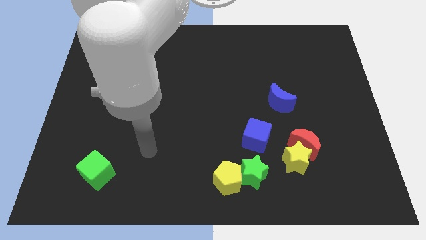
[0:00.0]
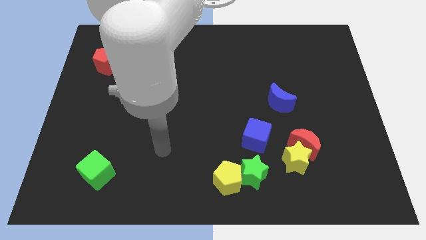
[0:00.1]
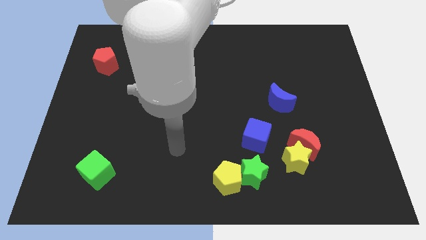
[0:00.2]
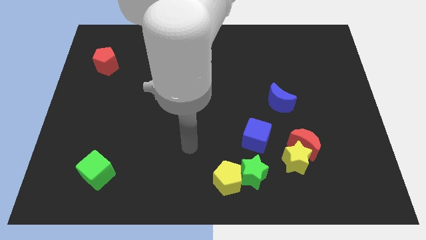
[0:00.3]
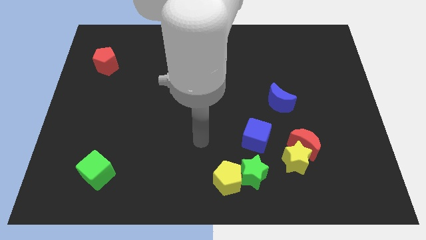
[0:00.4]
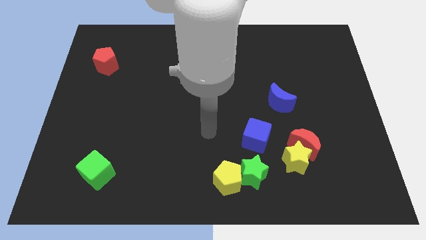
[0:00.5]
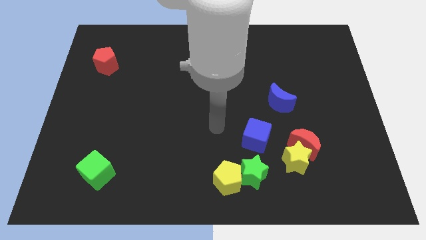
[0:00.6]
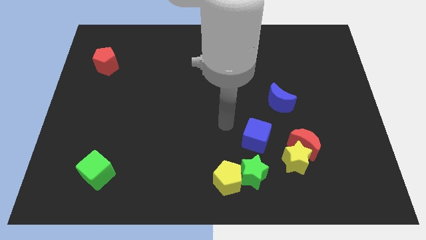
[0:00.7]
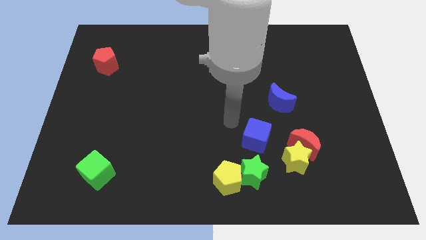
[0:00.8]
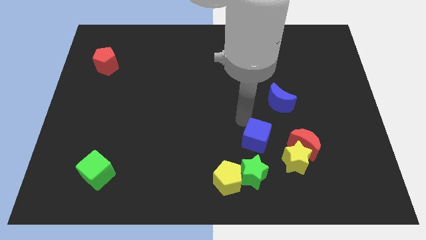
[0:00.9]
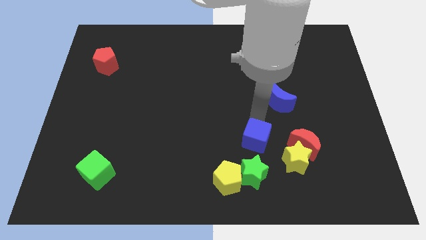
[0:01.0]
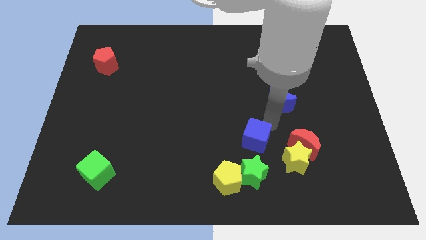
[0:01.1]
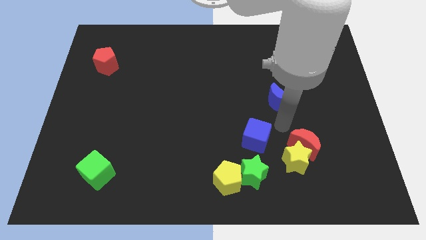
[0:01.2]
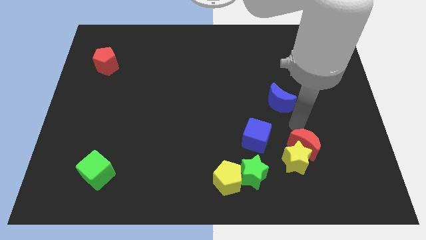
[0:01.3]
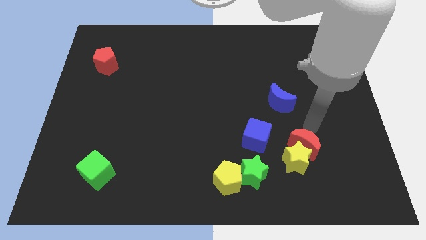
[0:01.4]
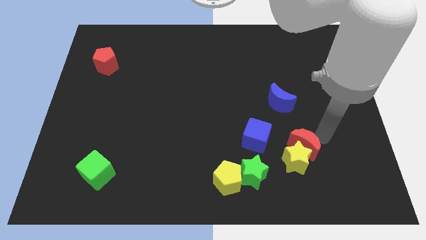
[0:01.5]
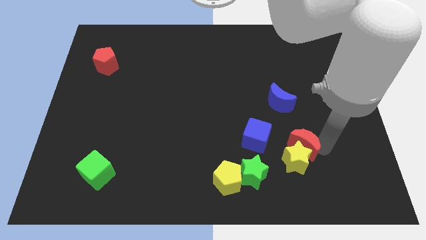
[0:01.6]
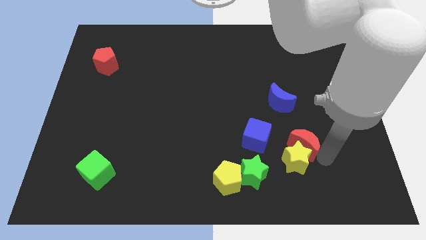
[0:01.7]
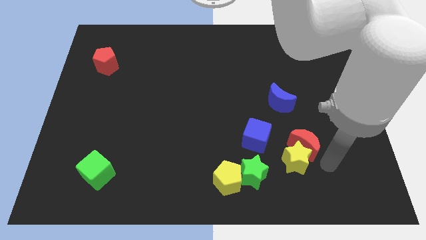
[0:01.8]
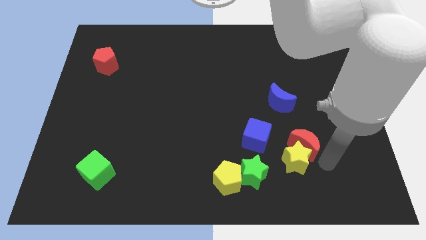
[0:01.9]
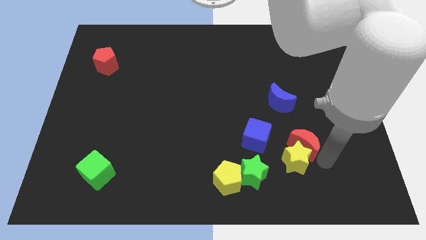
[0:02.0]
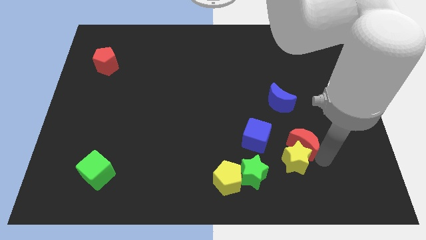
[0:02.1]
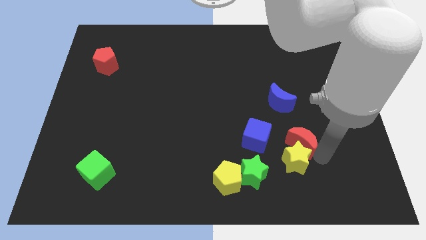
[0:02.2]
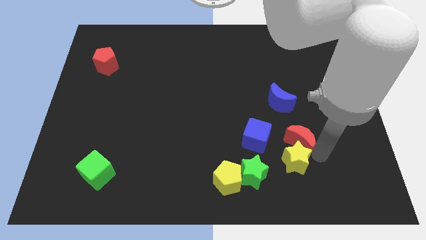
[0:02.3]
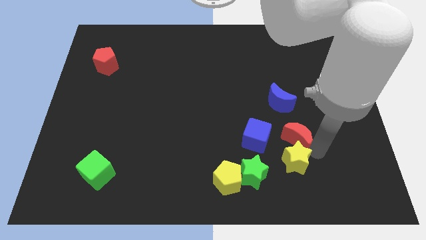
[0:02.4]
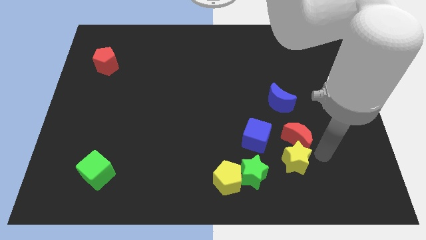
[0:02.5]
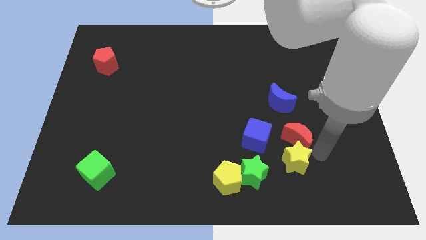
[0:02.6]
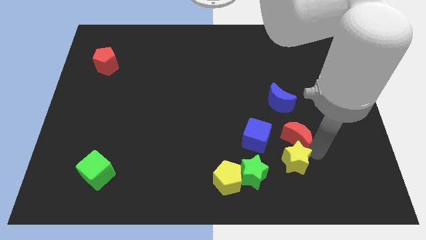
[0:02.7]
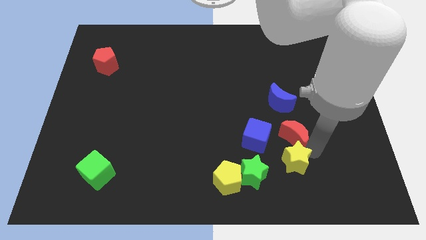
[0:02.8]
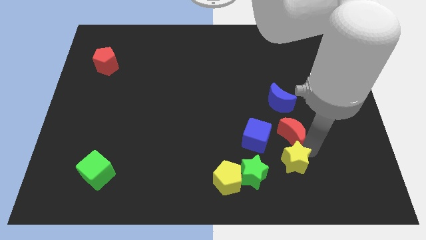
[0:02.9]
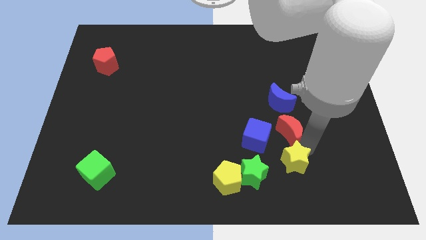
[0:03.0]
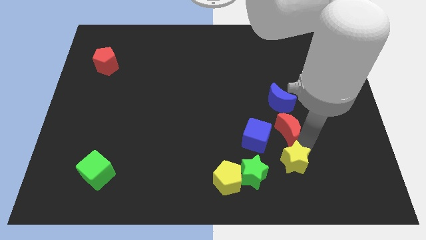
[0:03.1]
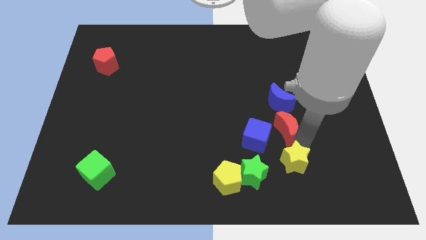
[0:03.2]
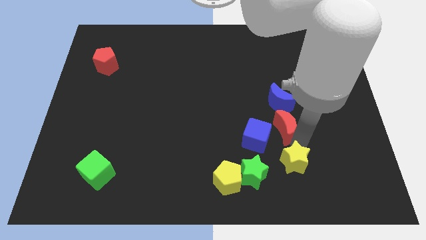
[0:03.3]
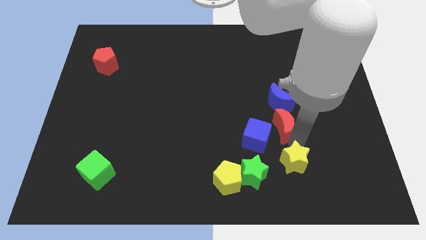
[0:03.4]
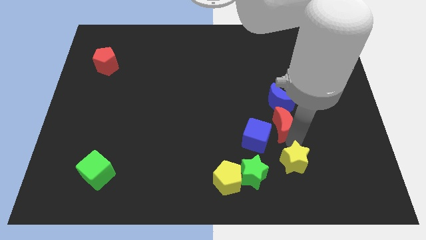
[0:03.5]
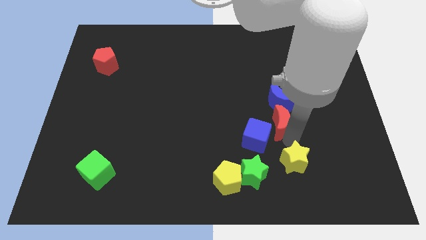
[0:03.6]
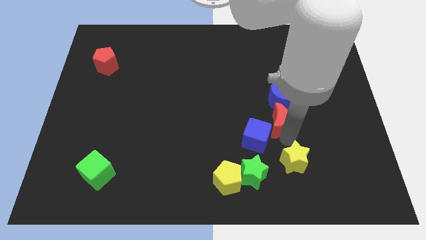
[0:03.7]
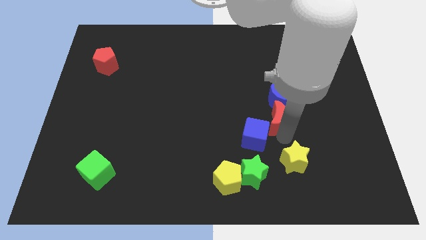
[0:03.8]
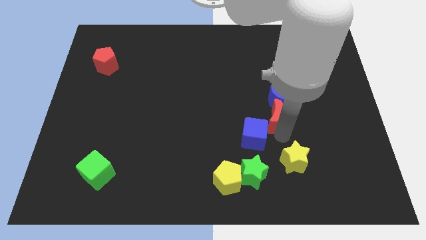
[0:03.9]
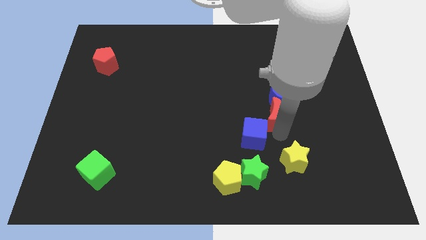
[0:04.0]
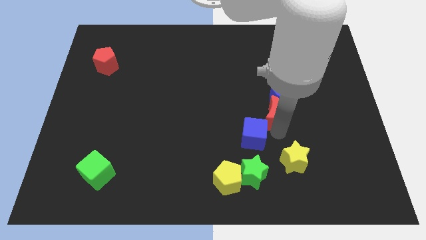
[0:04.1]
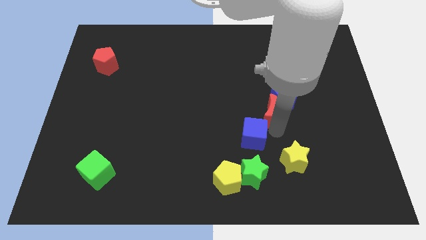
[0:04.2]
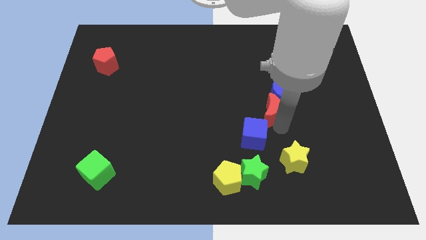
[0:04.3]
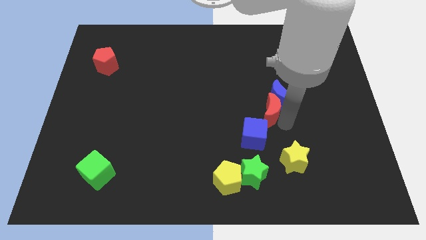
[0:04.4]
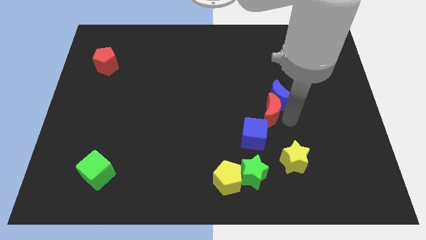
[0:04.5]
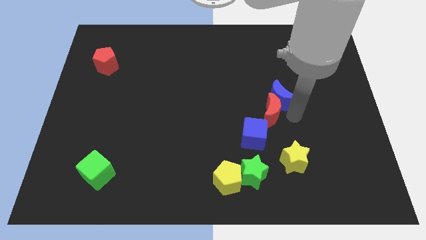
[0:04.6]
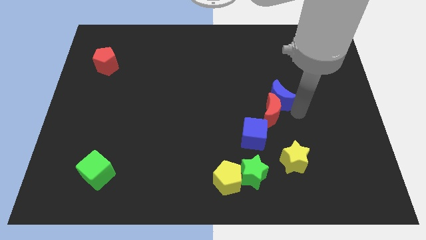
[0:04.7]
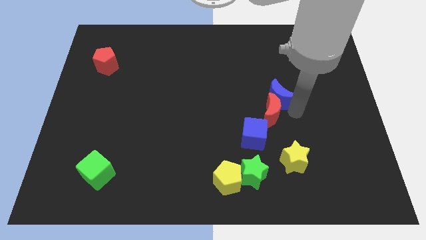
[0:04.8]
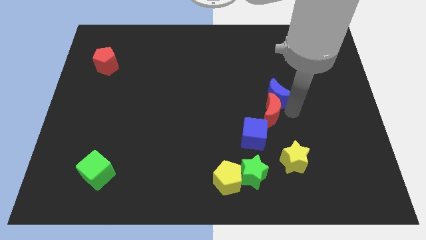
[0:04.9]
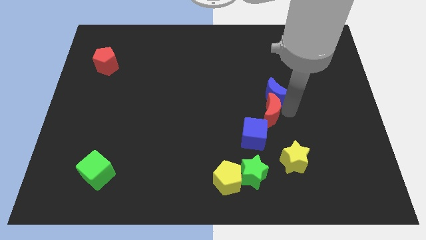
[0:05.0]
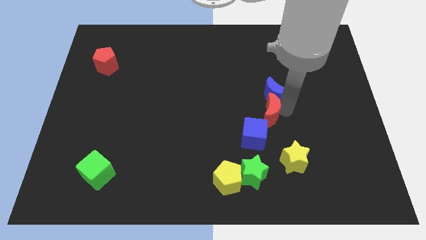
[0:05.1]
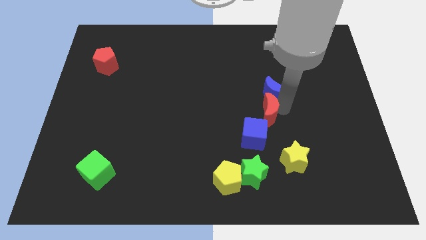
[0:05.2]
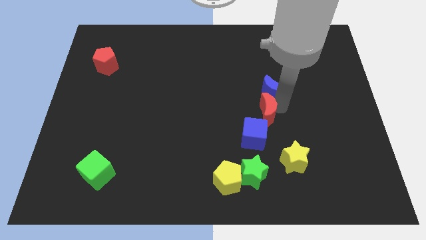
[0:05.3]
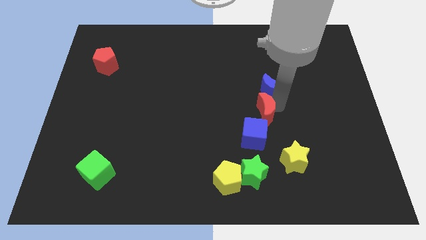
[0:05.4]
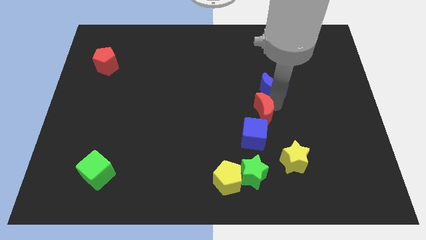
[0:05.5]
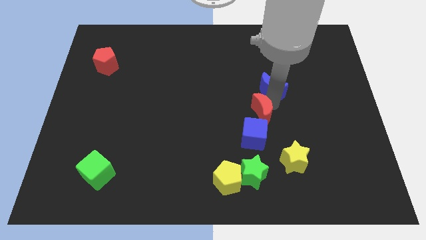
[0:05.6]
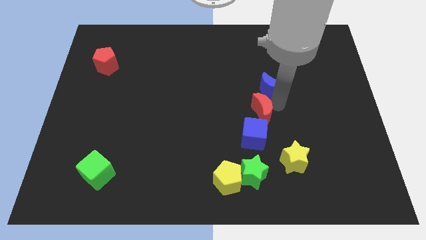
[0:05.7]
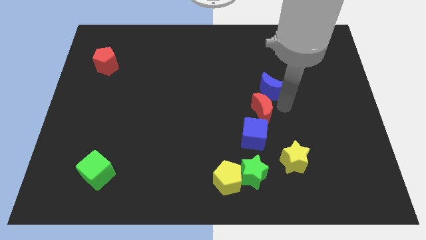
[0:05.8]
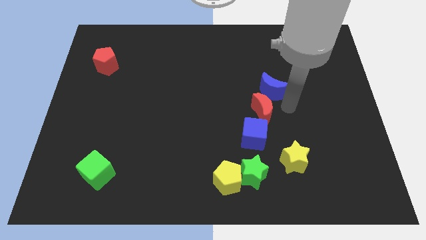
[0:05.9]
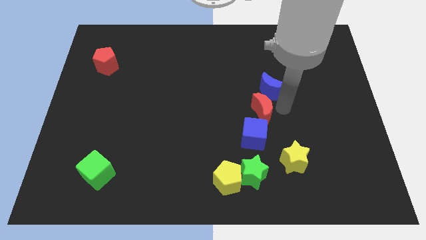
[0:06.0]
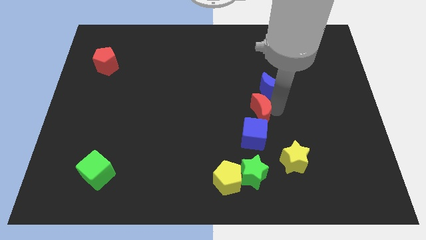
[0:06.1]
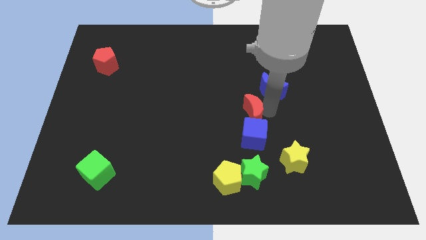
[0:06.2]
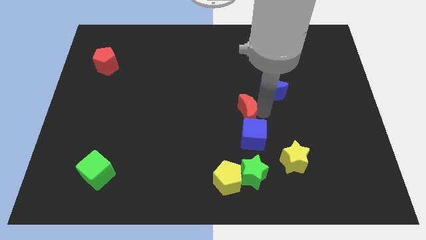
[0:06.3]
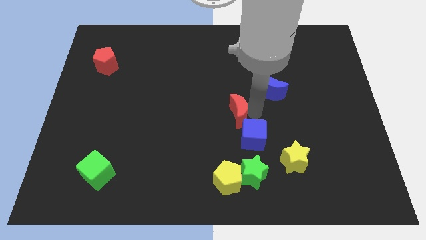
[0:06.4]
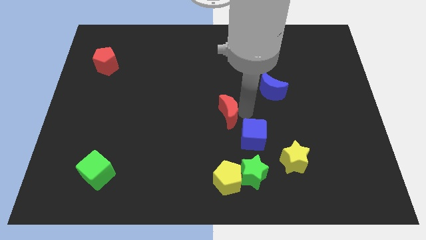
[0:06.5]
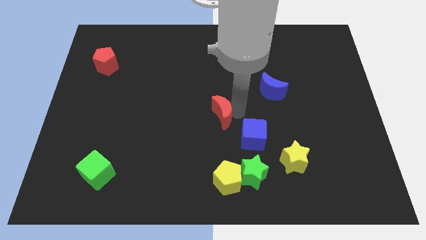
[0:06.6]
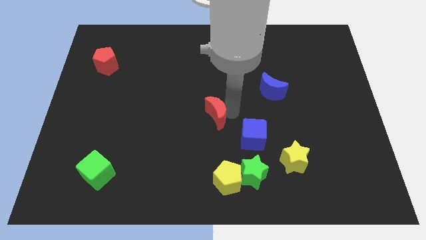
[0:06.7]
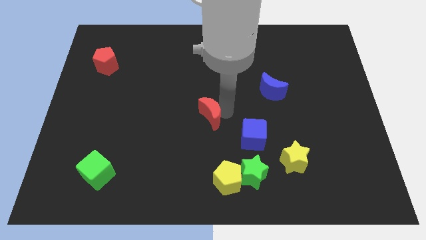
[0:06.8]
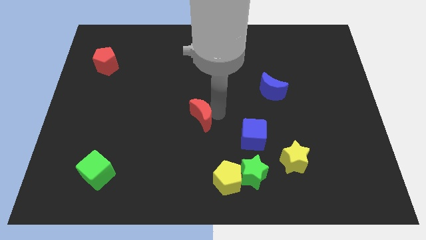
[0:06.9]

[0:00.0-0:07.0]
push the red moon to the left

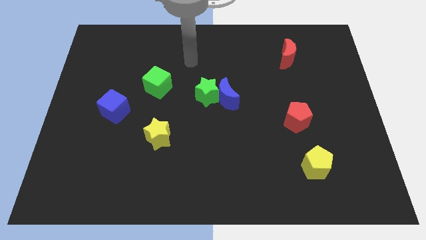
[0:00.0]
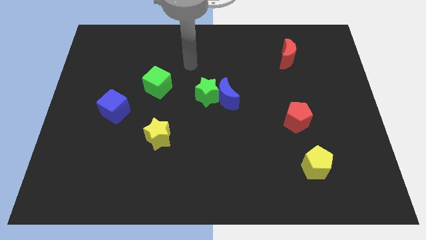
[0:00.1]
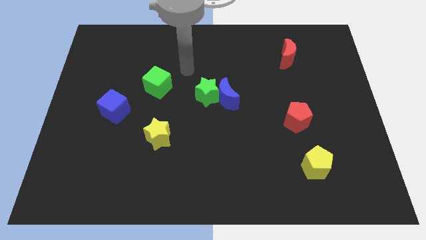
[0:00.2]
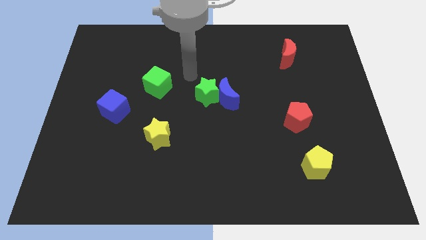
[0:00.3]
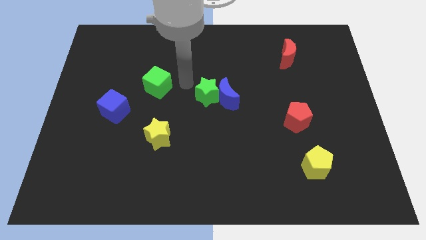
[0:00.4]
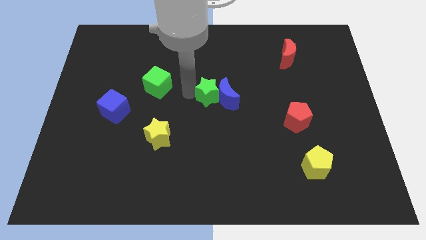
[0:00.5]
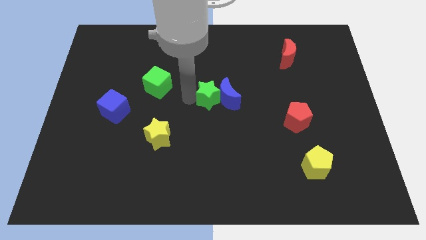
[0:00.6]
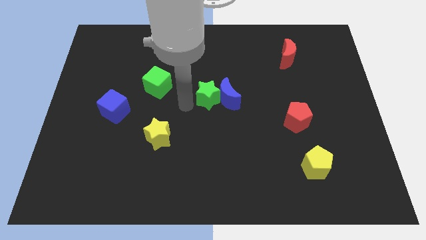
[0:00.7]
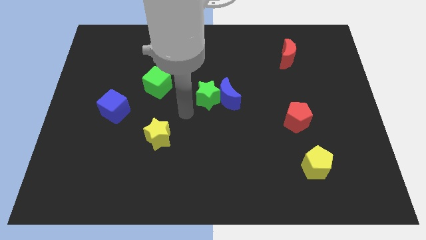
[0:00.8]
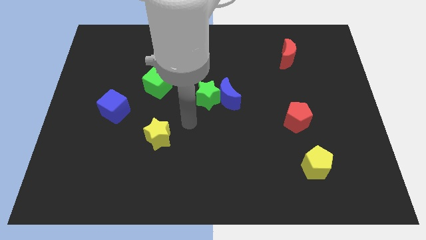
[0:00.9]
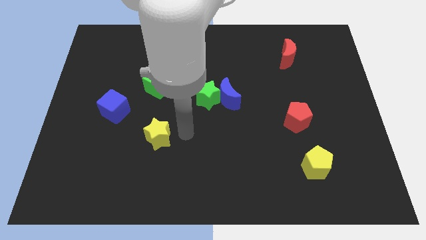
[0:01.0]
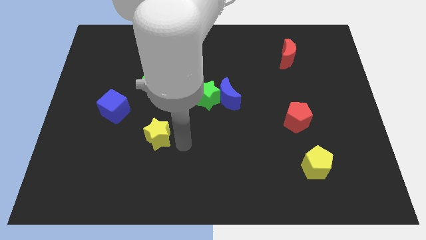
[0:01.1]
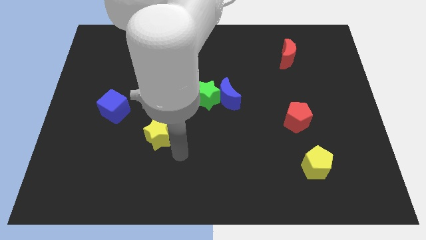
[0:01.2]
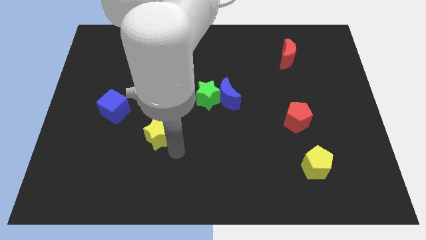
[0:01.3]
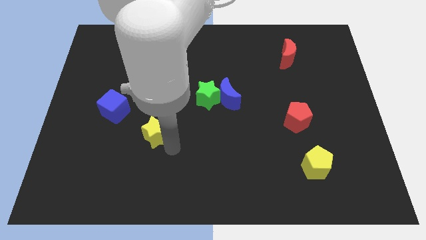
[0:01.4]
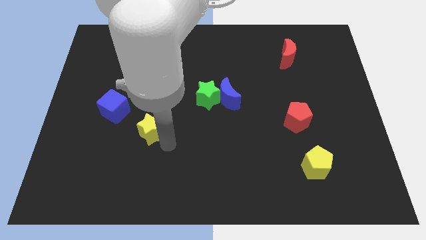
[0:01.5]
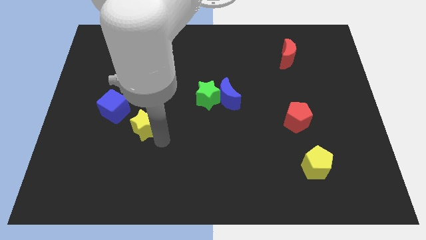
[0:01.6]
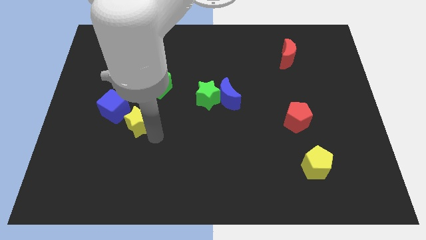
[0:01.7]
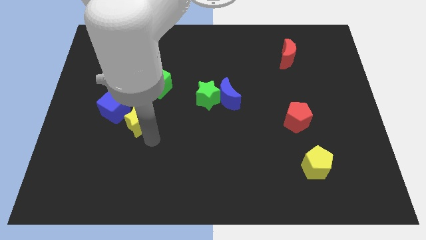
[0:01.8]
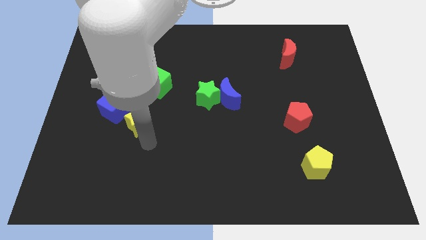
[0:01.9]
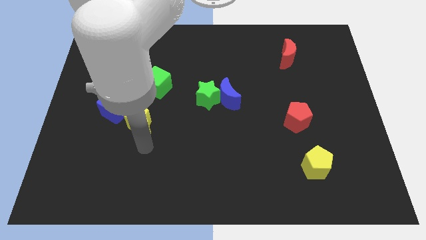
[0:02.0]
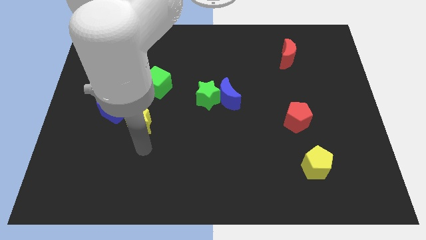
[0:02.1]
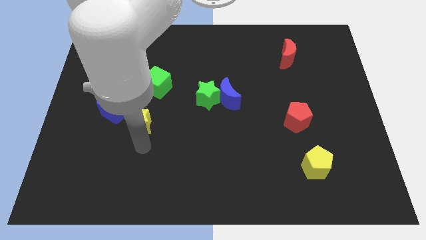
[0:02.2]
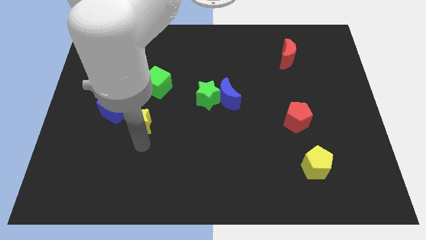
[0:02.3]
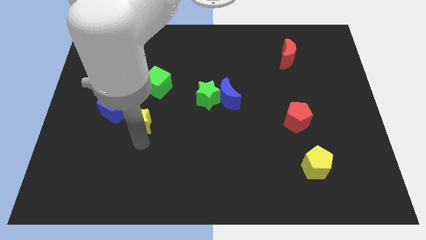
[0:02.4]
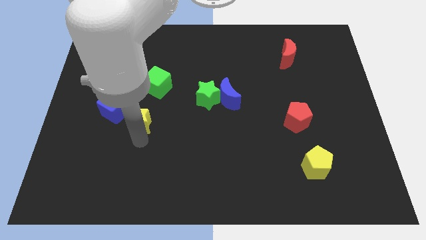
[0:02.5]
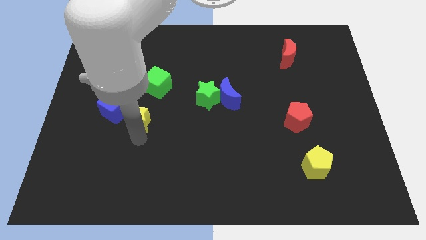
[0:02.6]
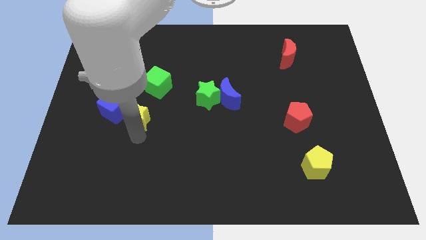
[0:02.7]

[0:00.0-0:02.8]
slide the yellow star a little bit up and left
